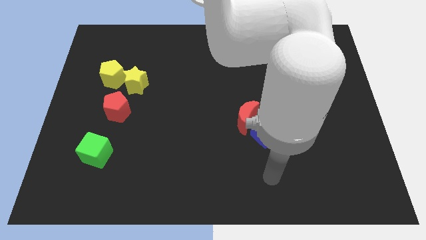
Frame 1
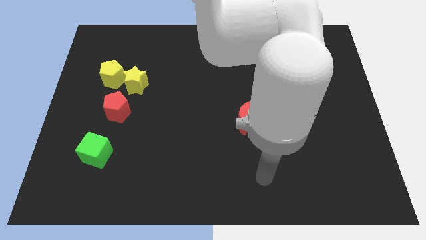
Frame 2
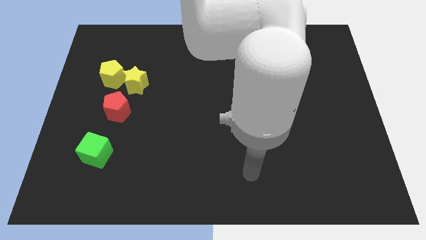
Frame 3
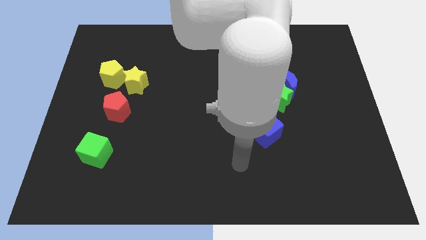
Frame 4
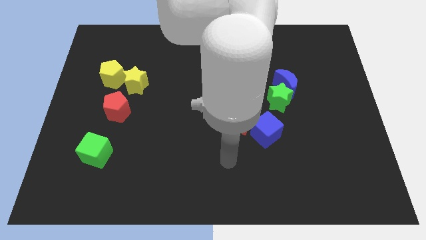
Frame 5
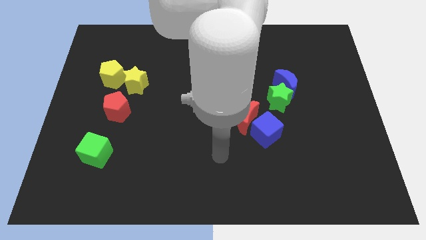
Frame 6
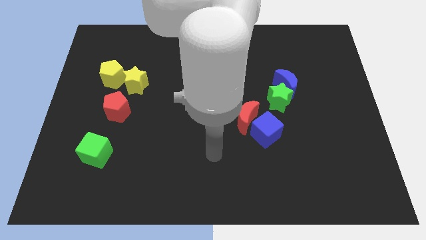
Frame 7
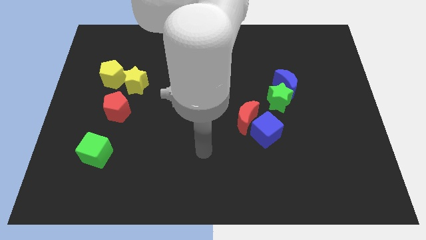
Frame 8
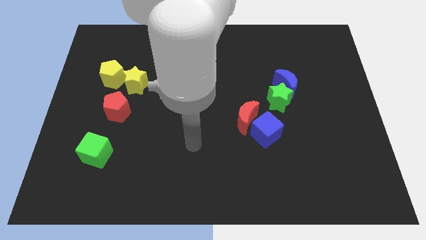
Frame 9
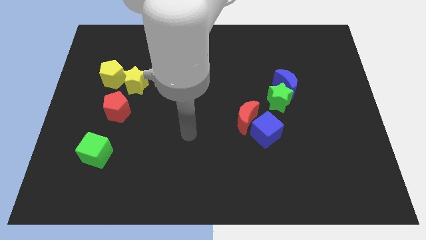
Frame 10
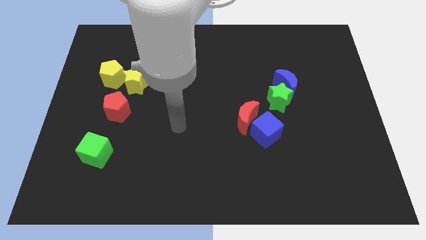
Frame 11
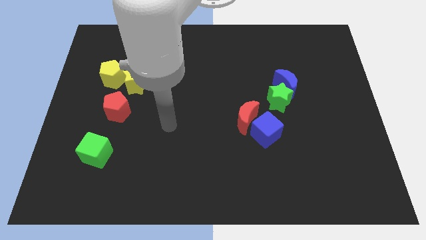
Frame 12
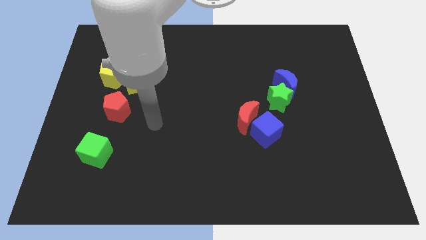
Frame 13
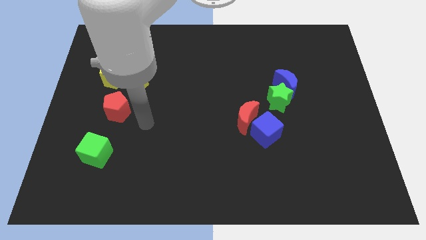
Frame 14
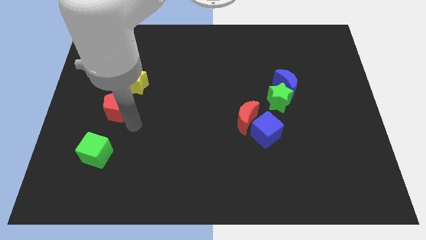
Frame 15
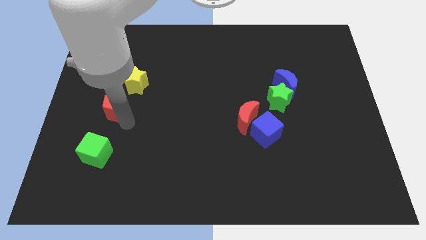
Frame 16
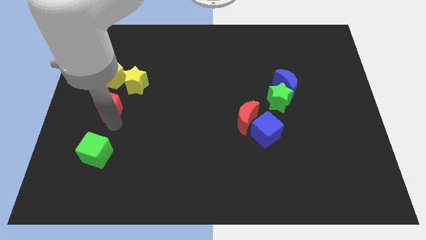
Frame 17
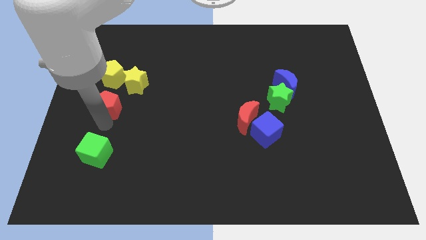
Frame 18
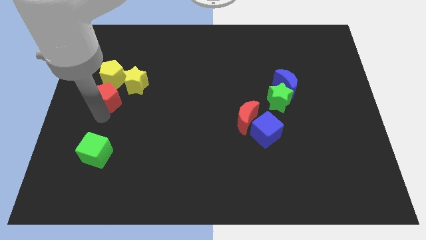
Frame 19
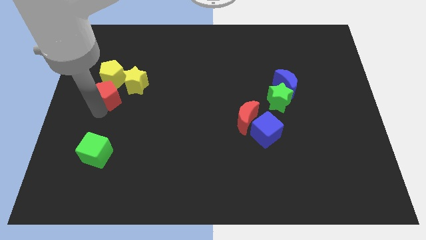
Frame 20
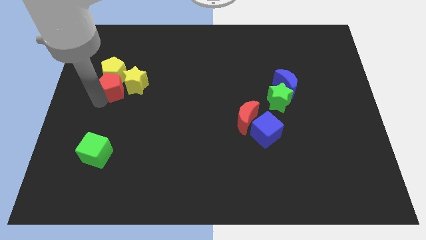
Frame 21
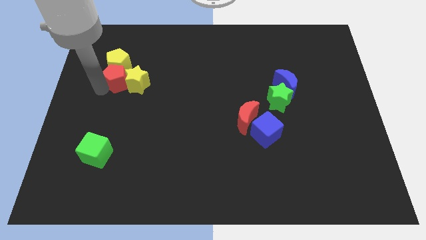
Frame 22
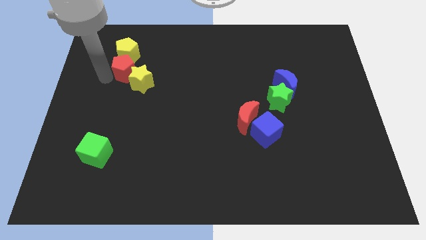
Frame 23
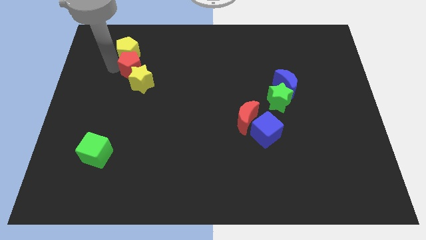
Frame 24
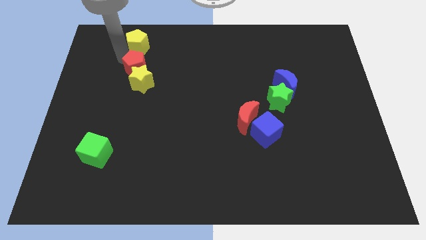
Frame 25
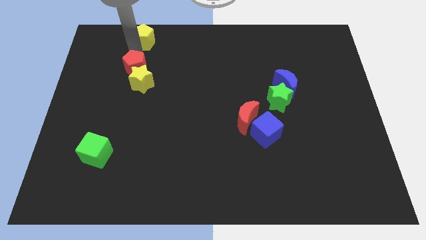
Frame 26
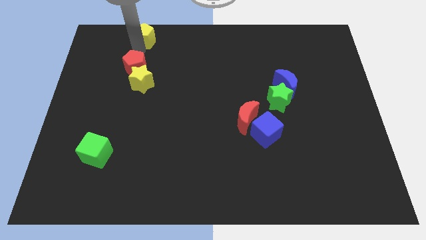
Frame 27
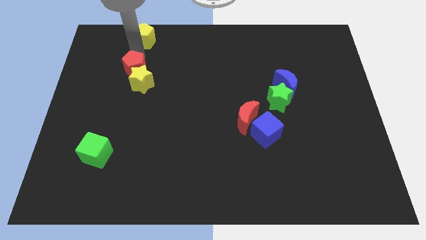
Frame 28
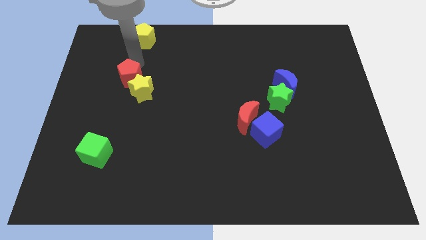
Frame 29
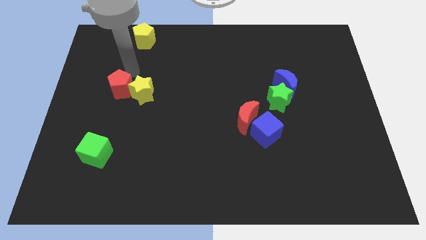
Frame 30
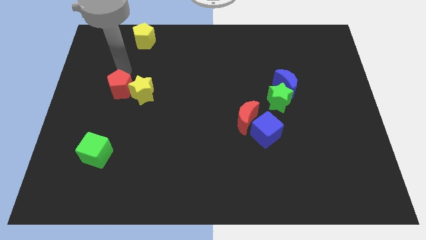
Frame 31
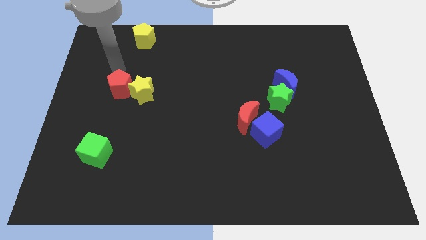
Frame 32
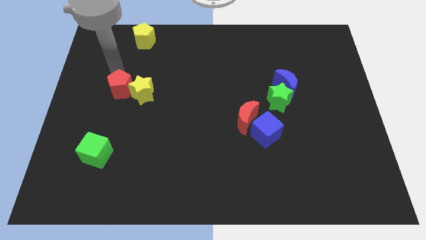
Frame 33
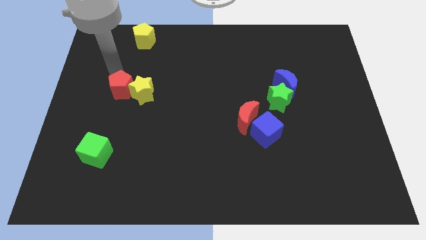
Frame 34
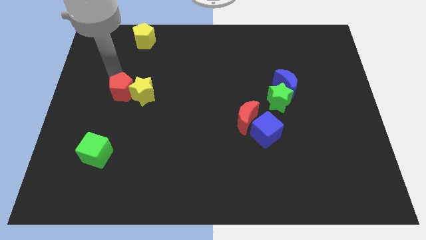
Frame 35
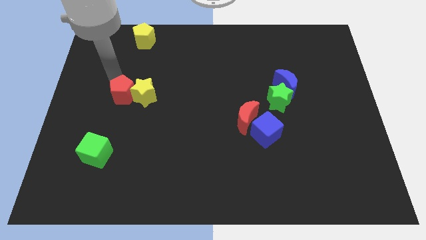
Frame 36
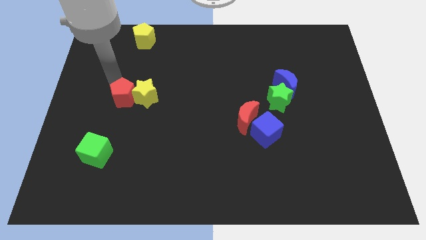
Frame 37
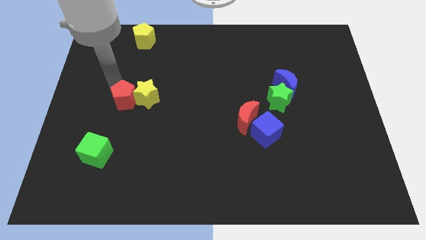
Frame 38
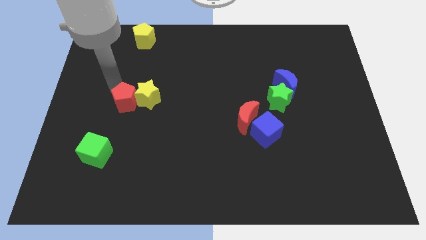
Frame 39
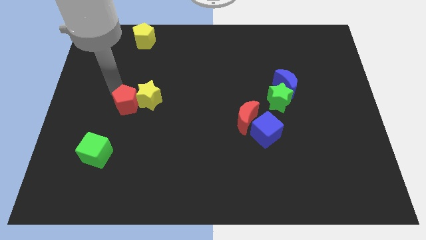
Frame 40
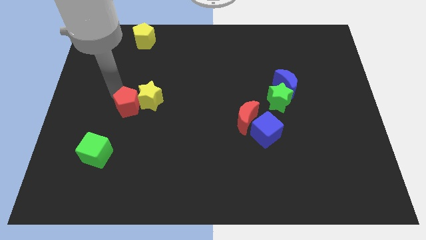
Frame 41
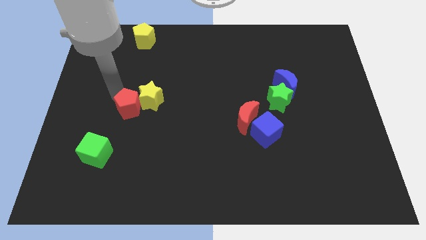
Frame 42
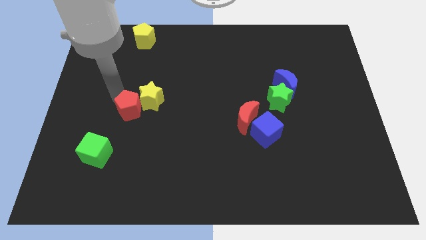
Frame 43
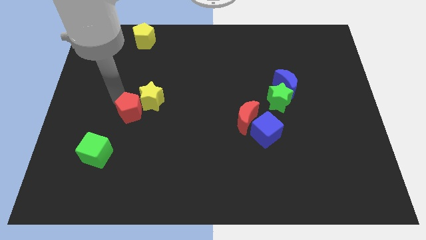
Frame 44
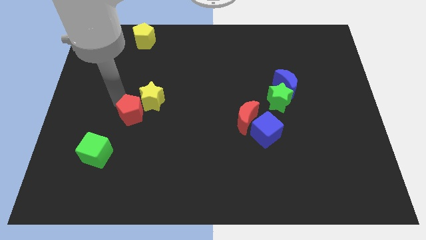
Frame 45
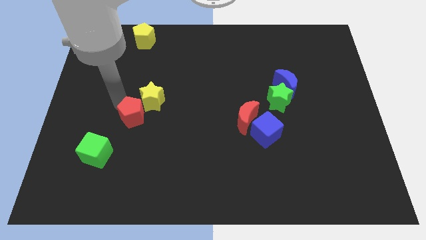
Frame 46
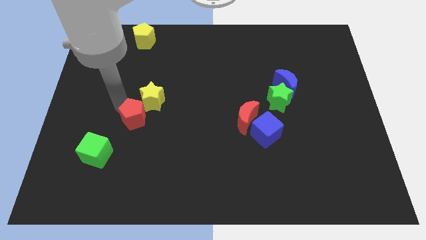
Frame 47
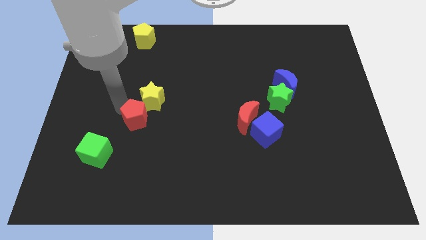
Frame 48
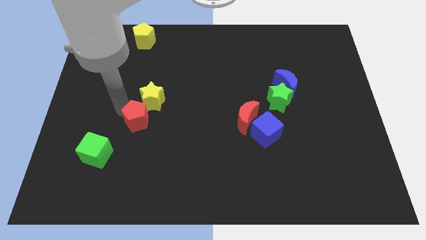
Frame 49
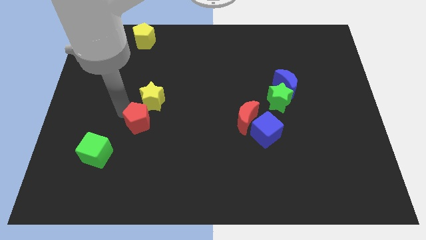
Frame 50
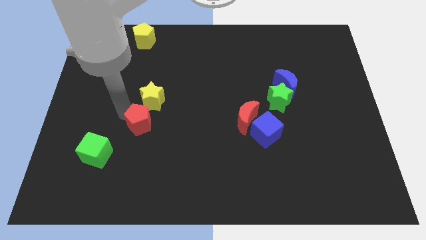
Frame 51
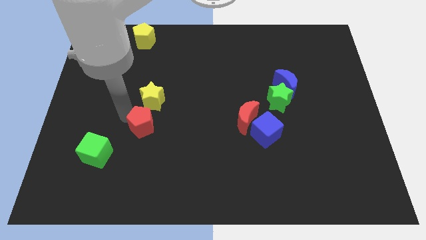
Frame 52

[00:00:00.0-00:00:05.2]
slide the red pentagon down and to the right diagonally a little

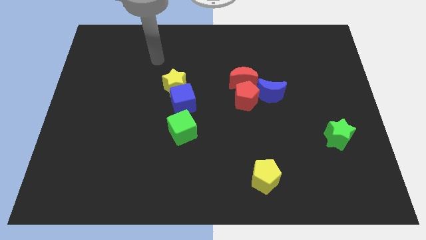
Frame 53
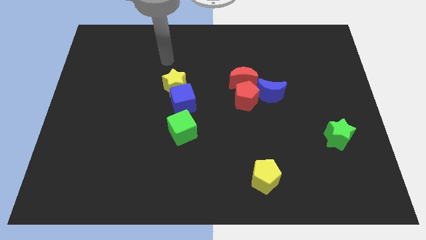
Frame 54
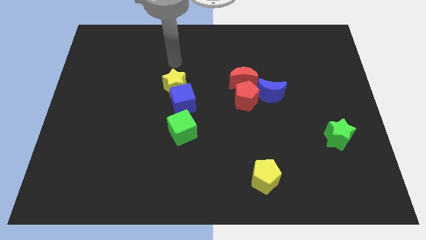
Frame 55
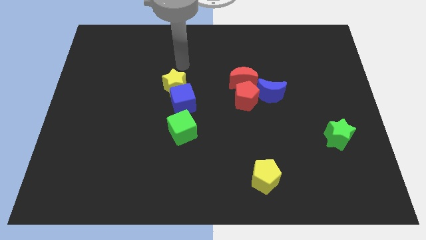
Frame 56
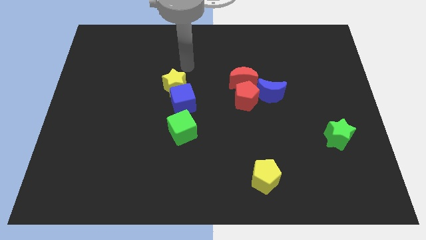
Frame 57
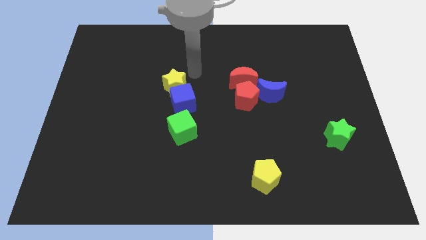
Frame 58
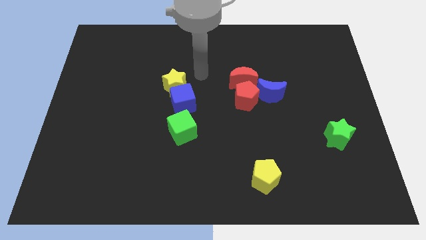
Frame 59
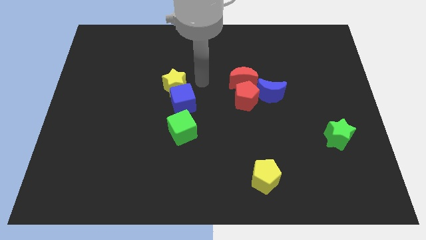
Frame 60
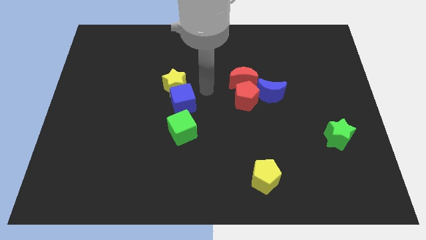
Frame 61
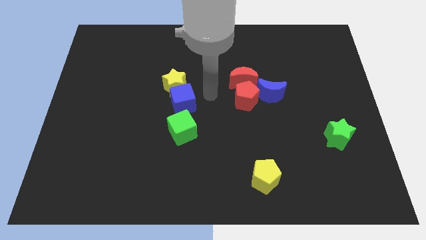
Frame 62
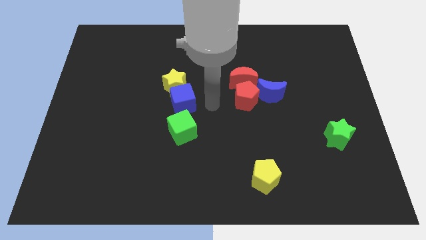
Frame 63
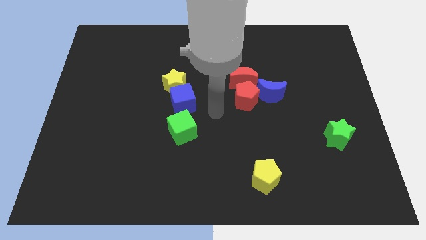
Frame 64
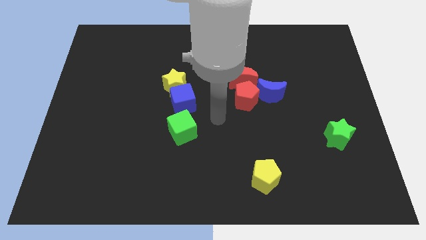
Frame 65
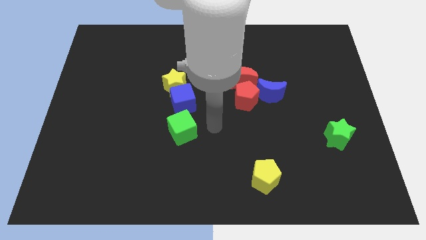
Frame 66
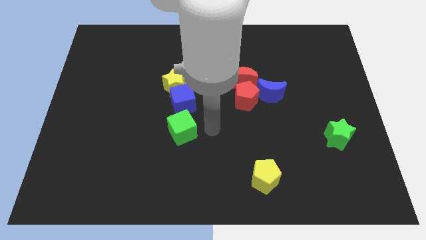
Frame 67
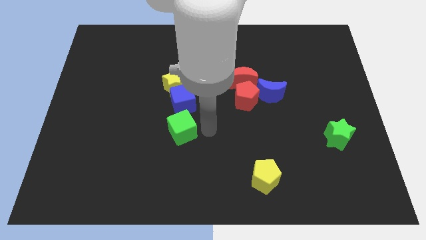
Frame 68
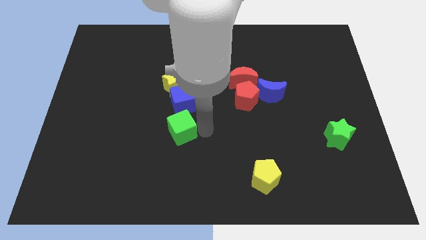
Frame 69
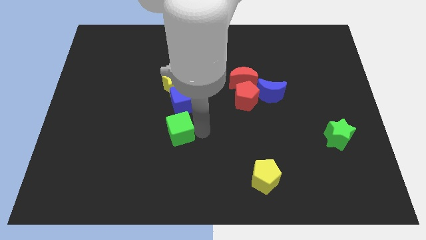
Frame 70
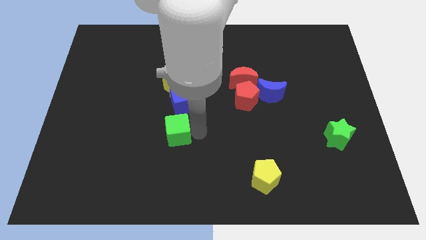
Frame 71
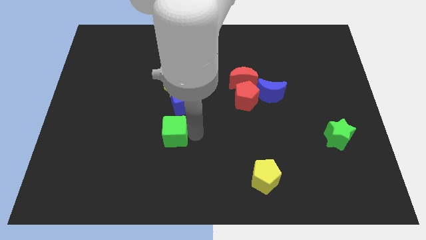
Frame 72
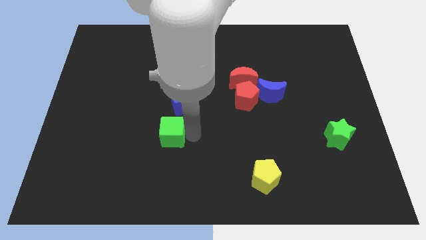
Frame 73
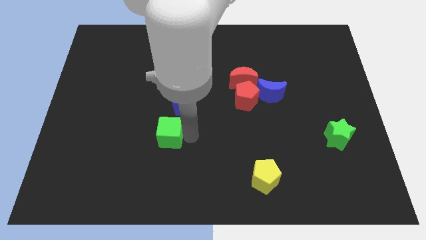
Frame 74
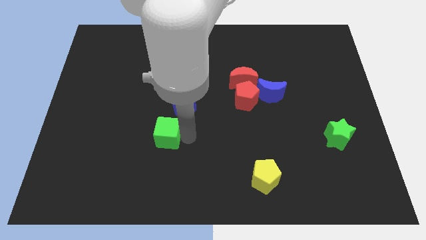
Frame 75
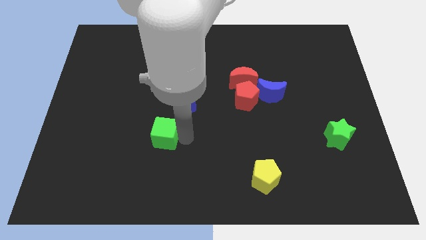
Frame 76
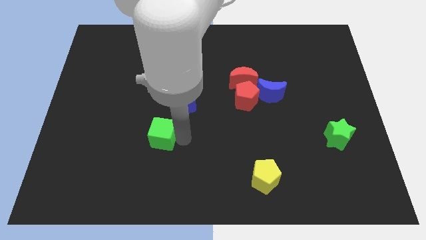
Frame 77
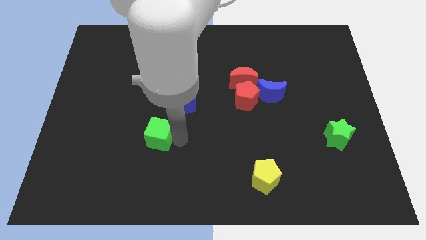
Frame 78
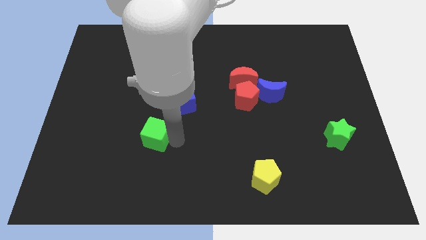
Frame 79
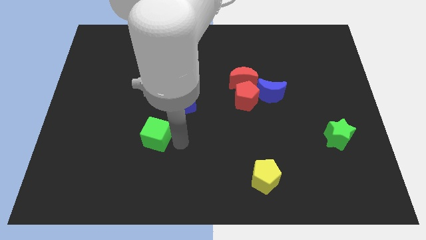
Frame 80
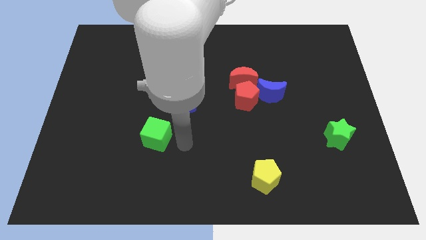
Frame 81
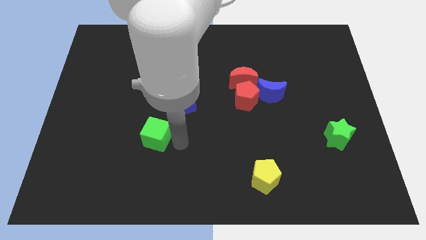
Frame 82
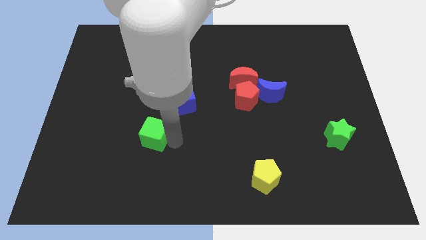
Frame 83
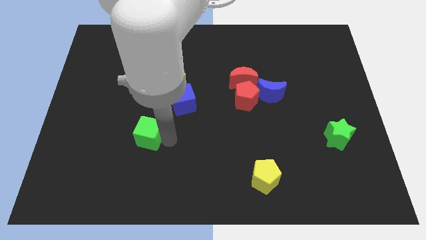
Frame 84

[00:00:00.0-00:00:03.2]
push the green cube left a little

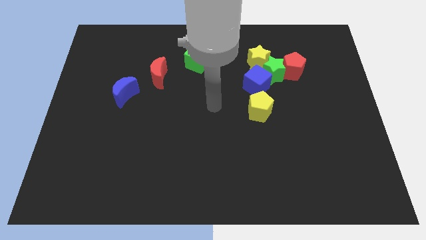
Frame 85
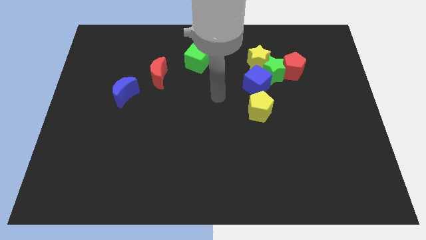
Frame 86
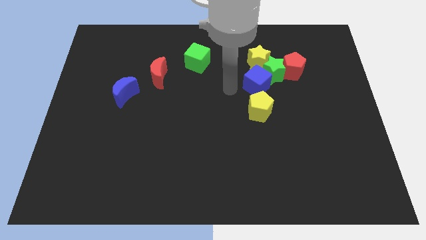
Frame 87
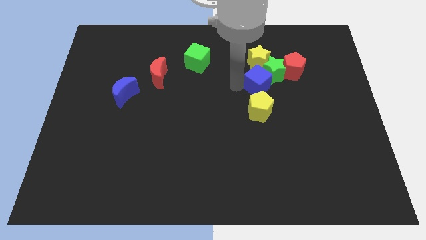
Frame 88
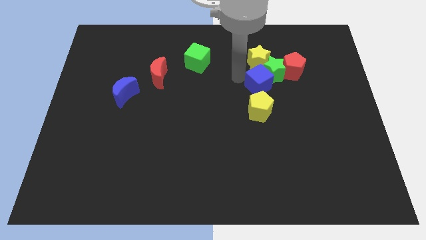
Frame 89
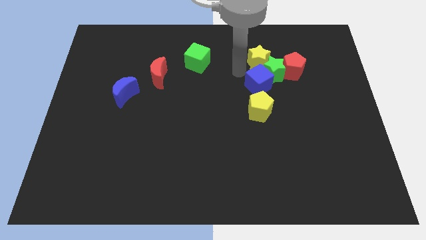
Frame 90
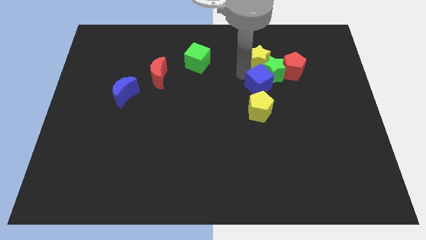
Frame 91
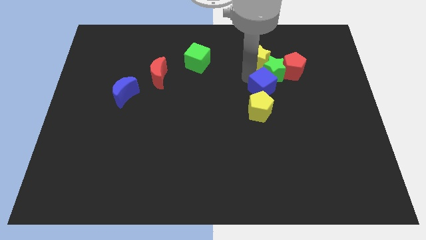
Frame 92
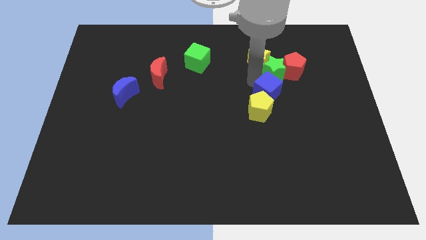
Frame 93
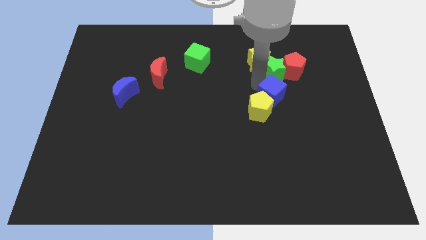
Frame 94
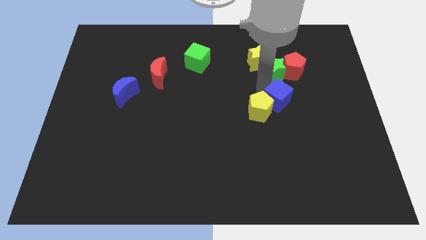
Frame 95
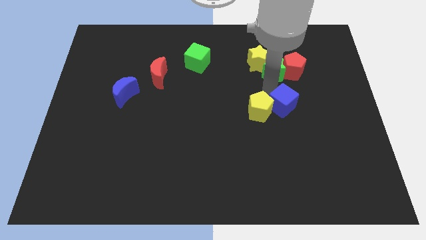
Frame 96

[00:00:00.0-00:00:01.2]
push the blue cube downwards and then right a bit
